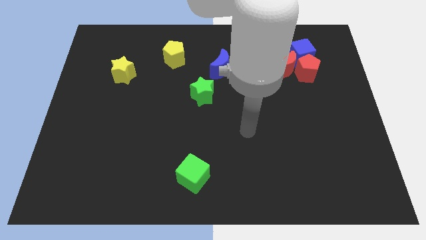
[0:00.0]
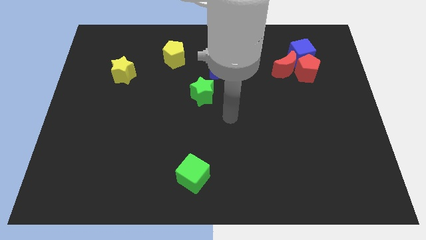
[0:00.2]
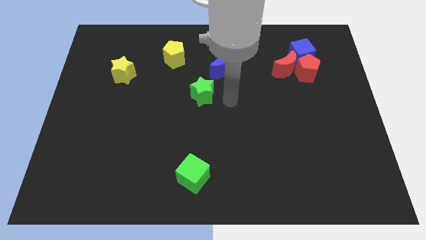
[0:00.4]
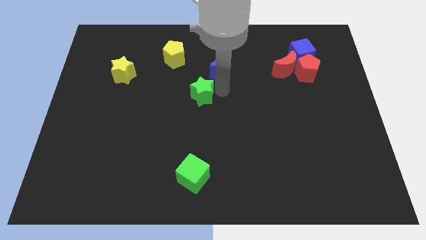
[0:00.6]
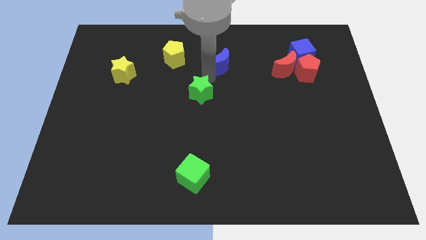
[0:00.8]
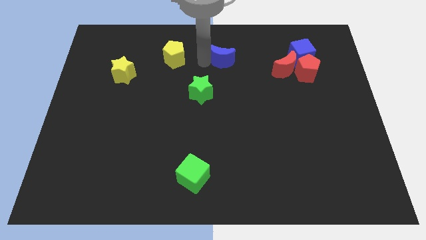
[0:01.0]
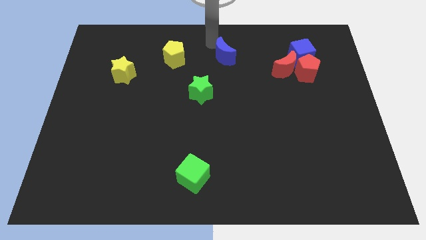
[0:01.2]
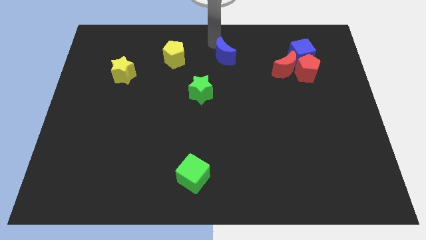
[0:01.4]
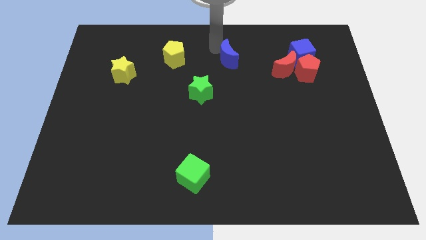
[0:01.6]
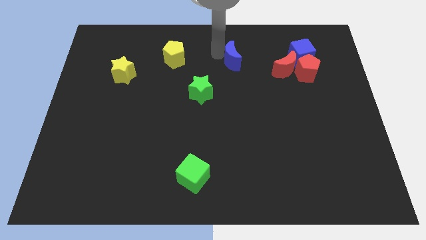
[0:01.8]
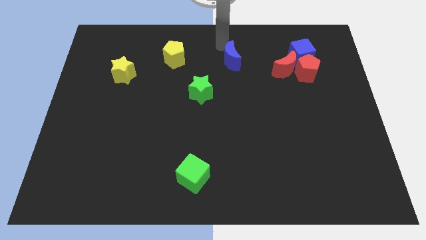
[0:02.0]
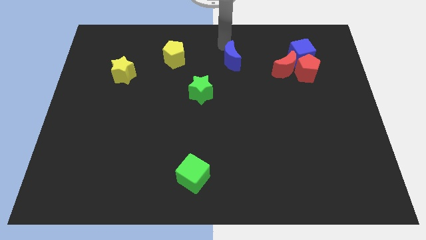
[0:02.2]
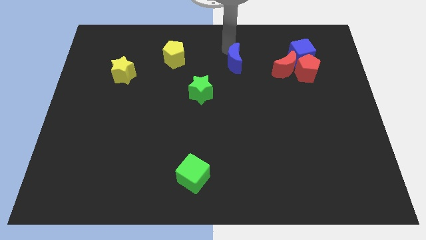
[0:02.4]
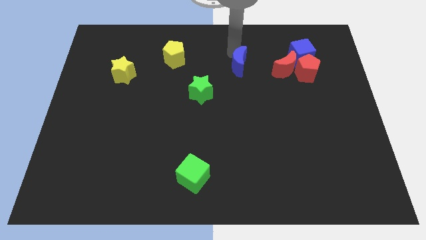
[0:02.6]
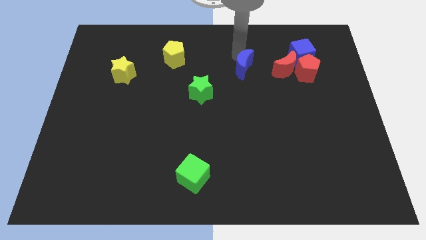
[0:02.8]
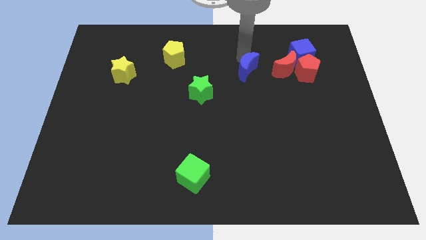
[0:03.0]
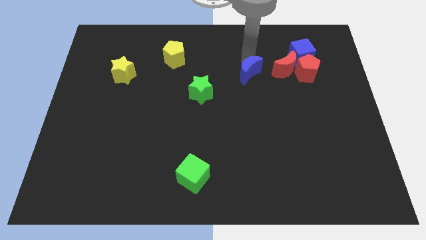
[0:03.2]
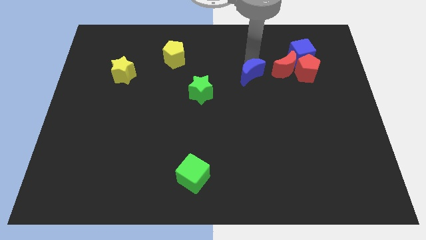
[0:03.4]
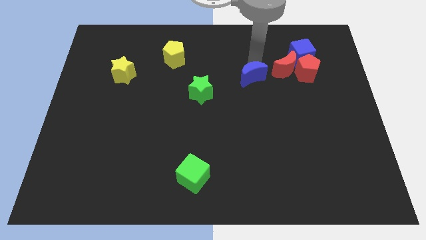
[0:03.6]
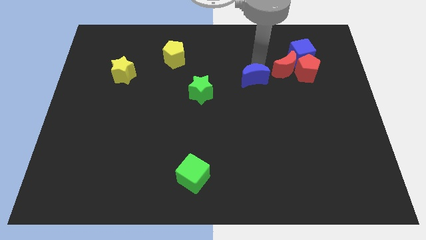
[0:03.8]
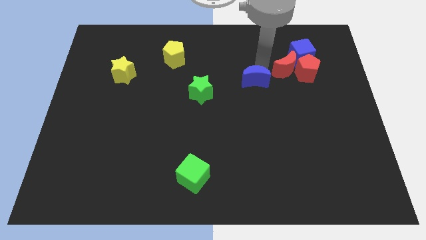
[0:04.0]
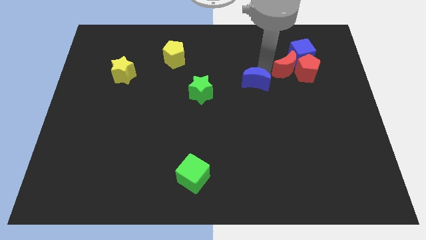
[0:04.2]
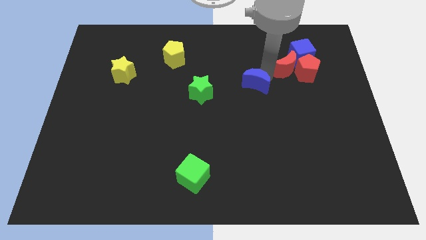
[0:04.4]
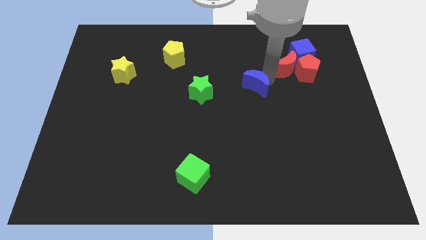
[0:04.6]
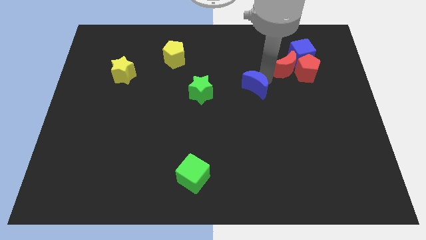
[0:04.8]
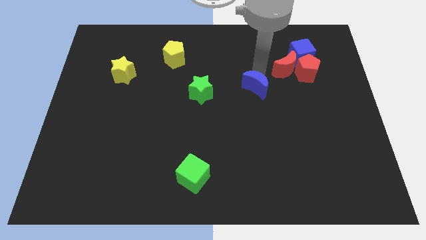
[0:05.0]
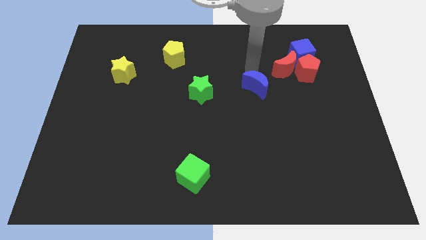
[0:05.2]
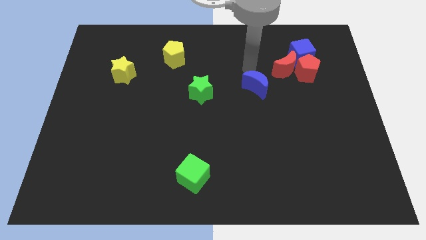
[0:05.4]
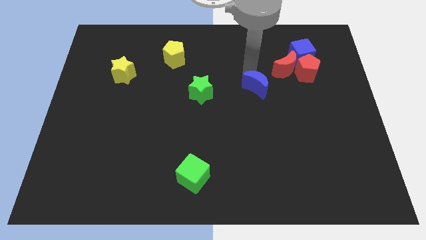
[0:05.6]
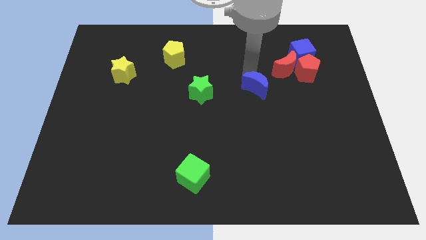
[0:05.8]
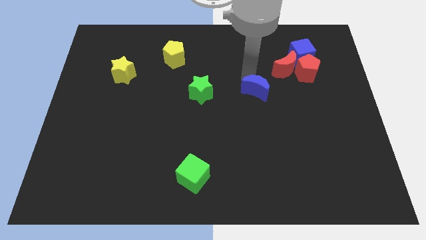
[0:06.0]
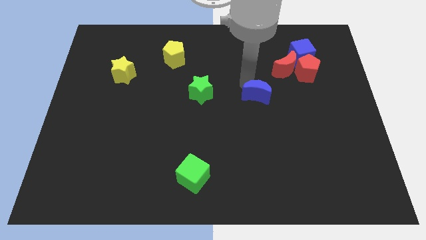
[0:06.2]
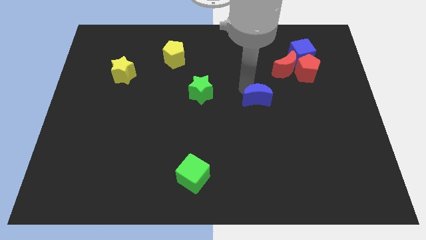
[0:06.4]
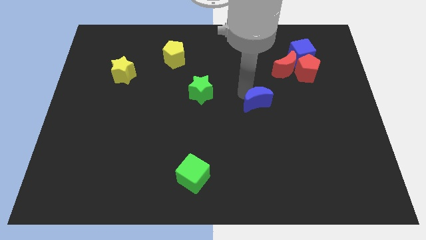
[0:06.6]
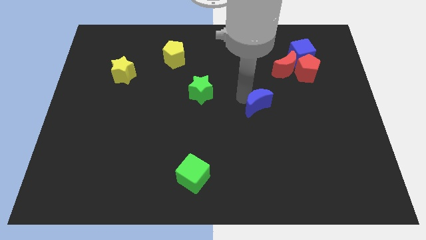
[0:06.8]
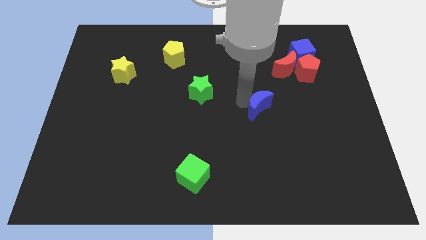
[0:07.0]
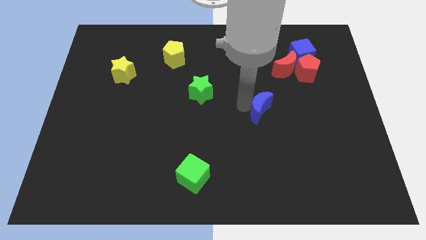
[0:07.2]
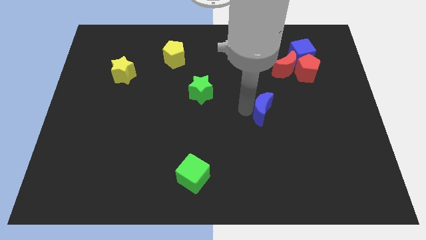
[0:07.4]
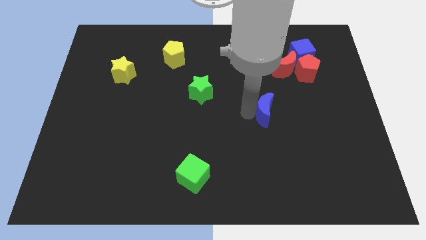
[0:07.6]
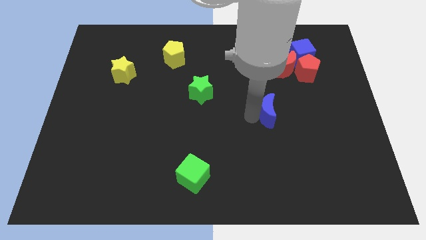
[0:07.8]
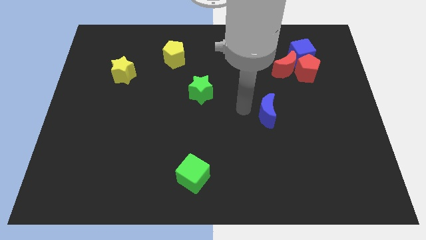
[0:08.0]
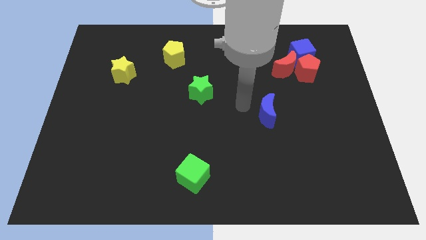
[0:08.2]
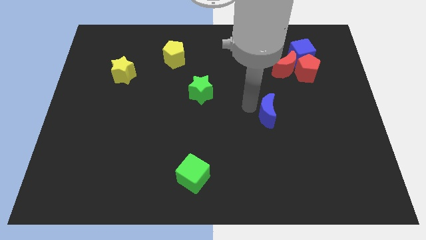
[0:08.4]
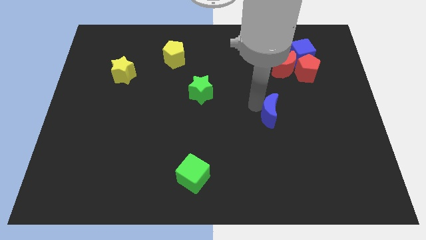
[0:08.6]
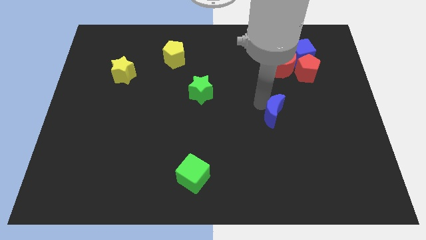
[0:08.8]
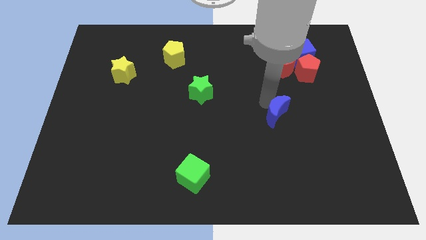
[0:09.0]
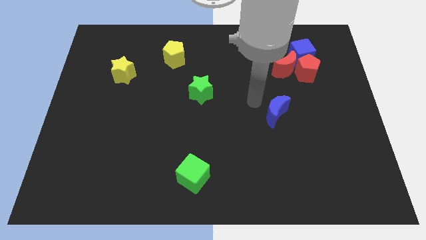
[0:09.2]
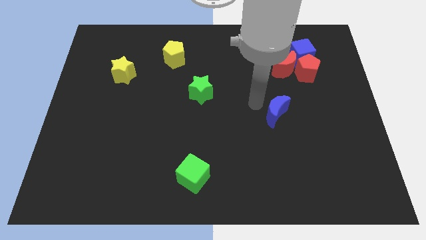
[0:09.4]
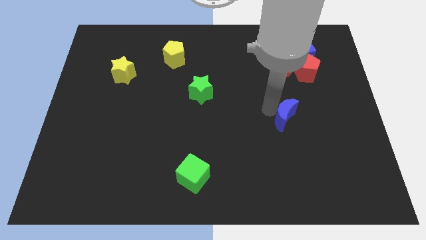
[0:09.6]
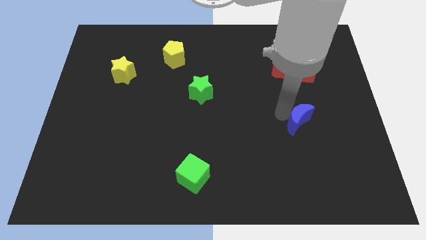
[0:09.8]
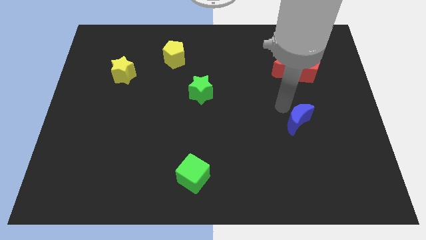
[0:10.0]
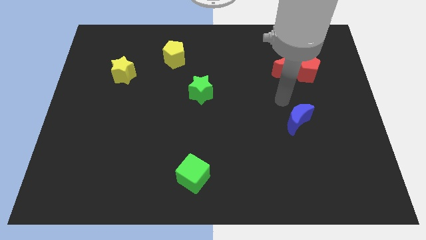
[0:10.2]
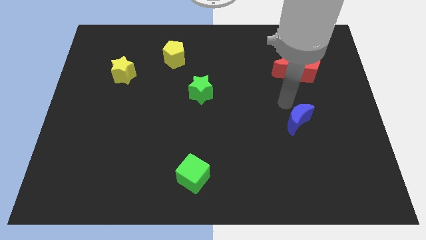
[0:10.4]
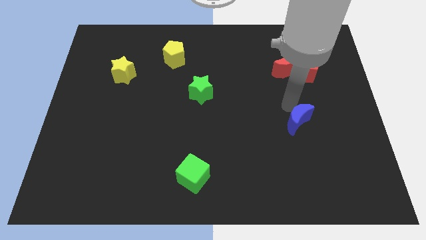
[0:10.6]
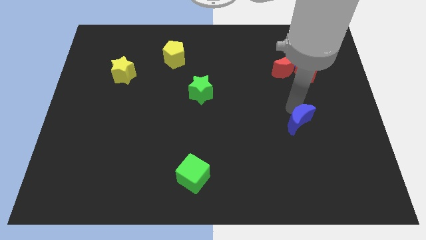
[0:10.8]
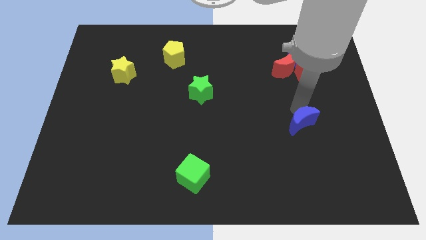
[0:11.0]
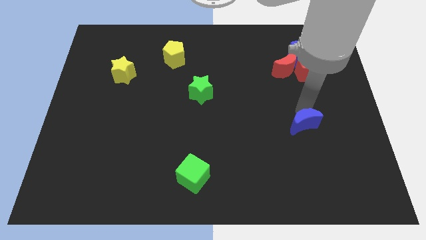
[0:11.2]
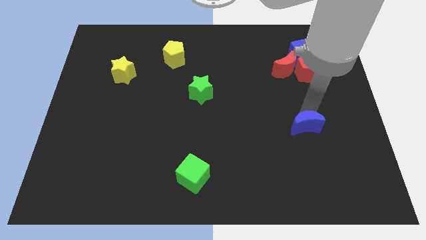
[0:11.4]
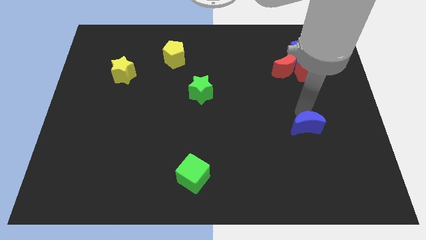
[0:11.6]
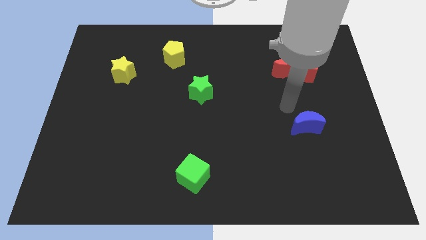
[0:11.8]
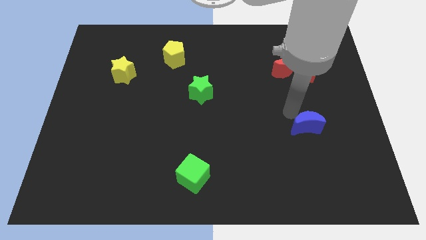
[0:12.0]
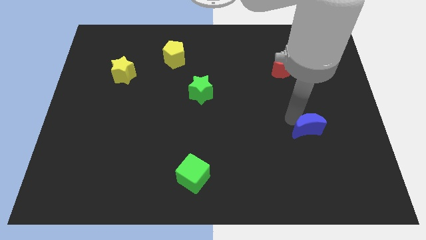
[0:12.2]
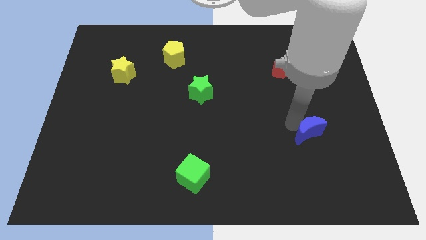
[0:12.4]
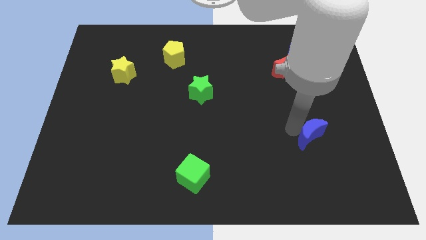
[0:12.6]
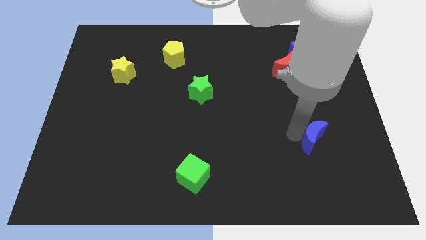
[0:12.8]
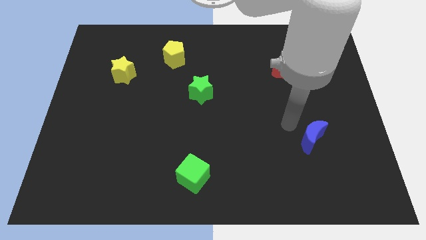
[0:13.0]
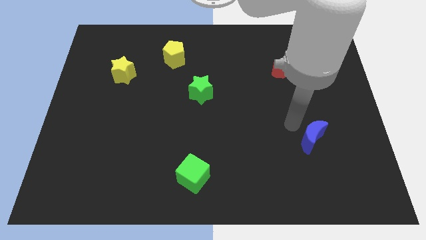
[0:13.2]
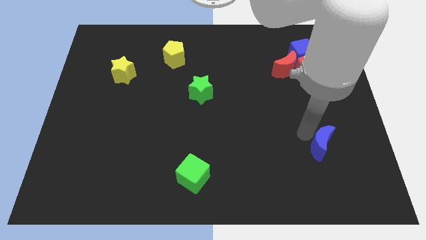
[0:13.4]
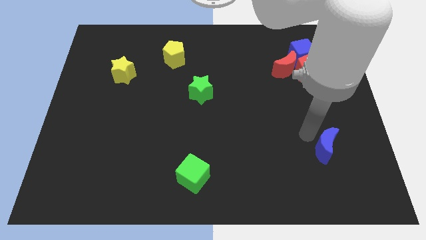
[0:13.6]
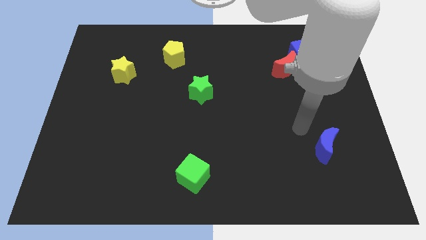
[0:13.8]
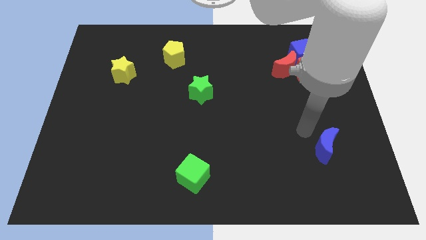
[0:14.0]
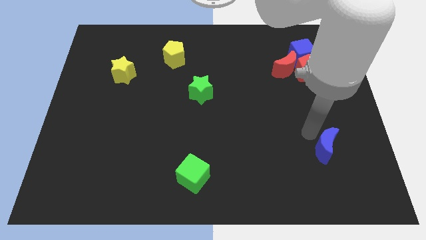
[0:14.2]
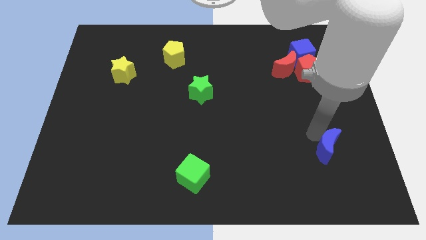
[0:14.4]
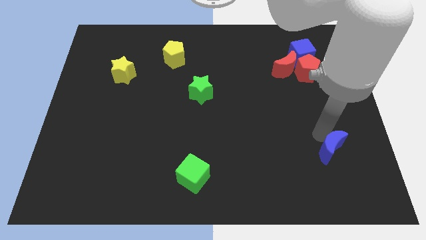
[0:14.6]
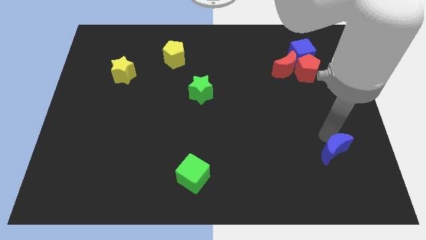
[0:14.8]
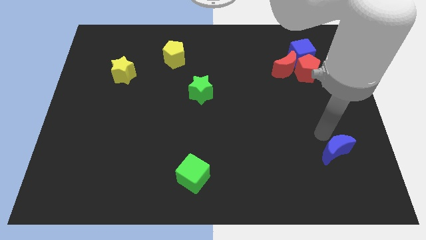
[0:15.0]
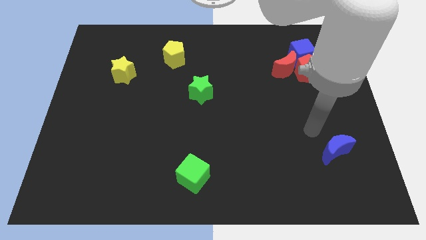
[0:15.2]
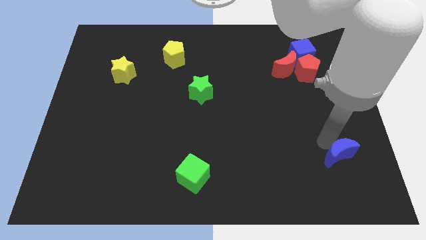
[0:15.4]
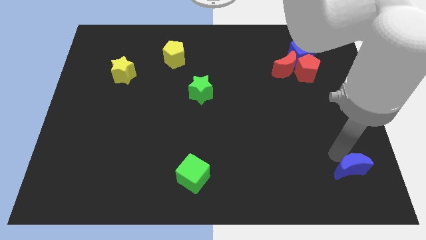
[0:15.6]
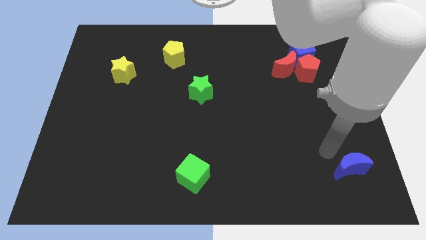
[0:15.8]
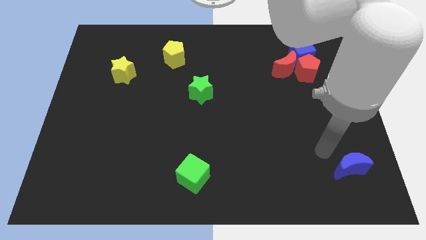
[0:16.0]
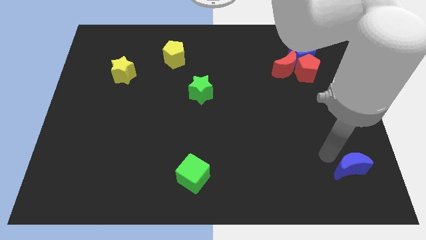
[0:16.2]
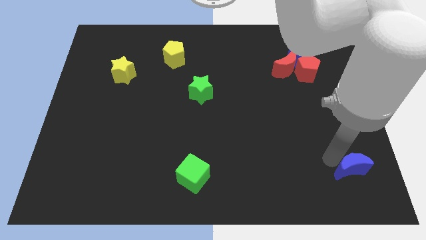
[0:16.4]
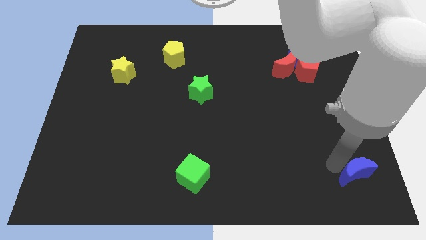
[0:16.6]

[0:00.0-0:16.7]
slide the blue moon to the bottom right corner
